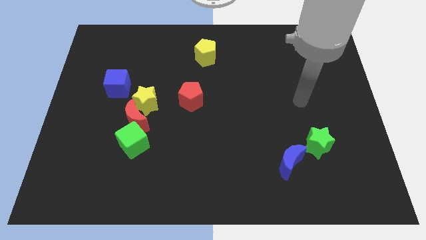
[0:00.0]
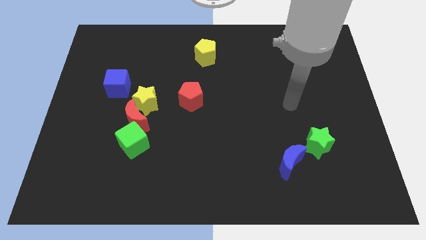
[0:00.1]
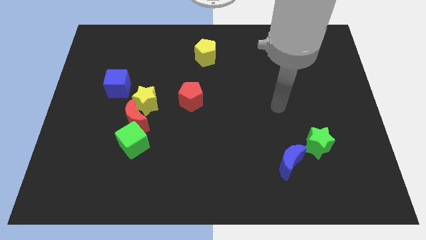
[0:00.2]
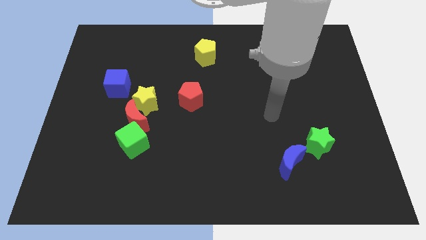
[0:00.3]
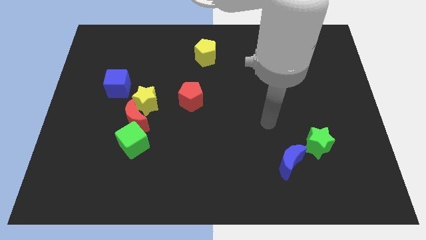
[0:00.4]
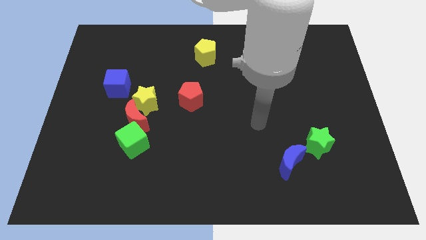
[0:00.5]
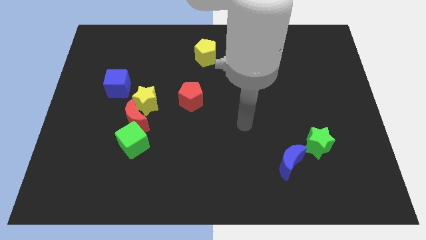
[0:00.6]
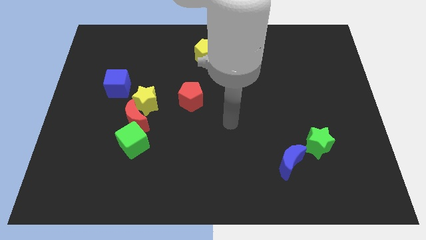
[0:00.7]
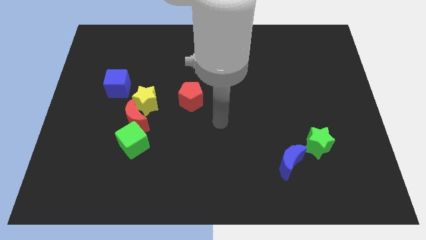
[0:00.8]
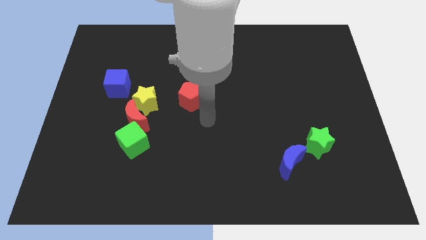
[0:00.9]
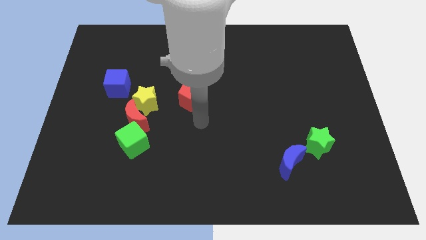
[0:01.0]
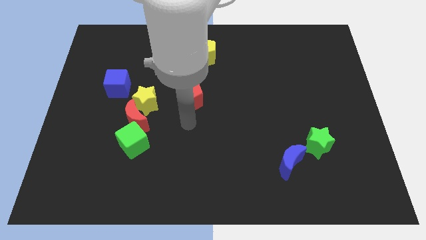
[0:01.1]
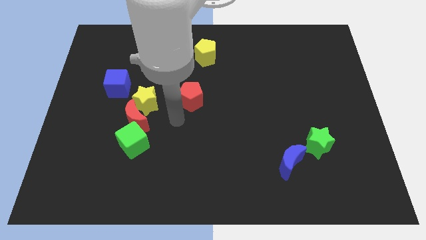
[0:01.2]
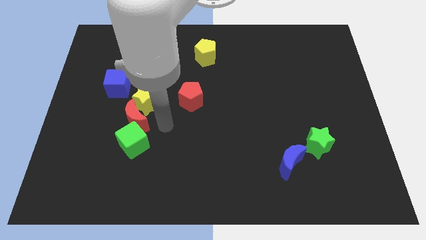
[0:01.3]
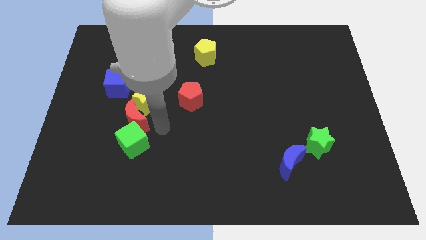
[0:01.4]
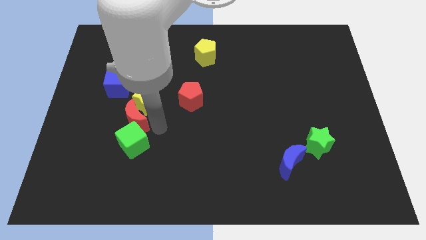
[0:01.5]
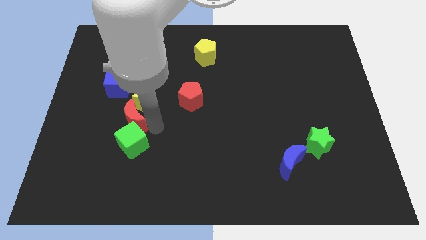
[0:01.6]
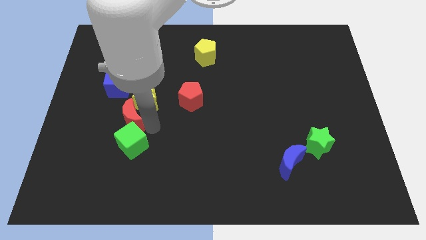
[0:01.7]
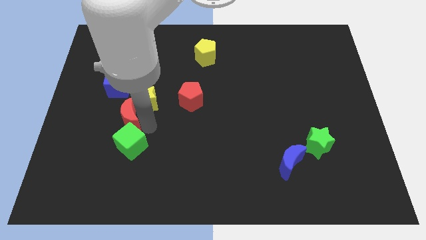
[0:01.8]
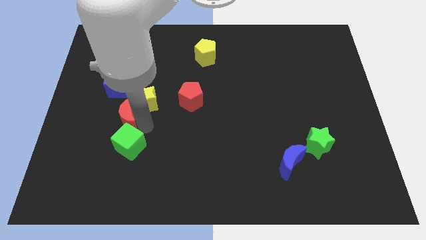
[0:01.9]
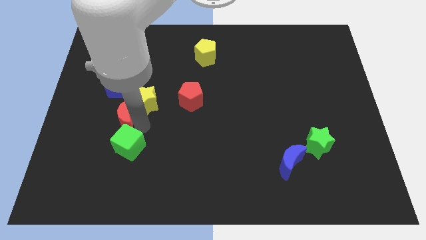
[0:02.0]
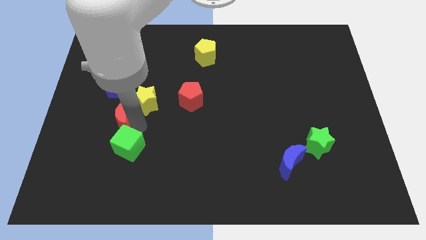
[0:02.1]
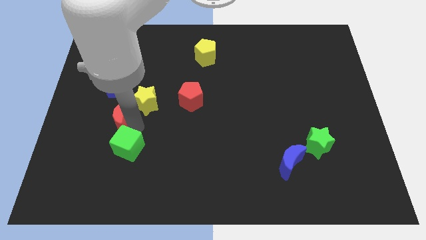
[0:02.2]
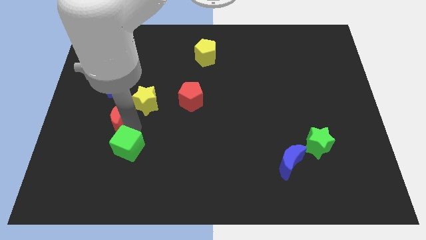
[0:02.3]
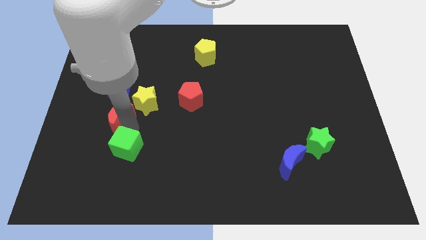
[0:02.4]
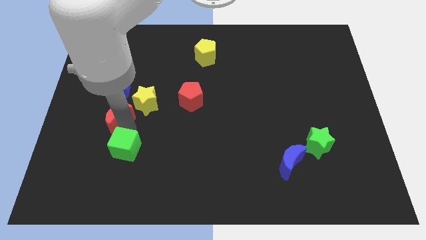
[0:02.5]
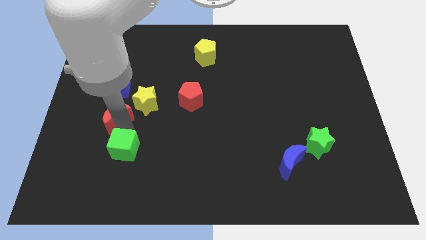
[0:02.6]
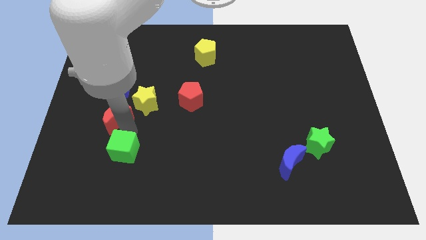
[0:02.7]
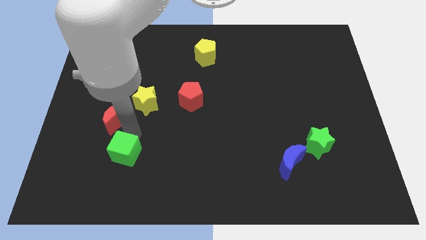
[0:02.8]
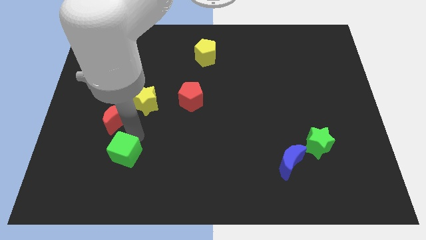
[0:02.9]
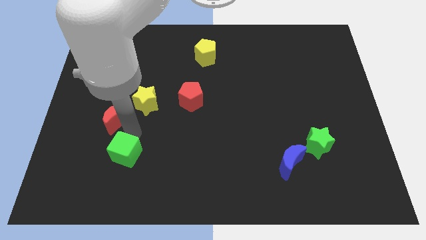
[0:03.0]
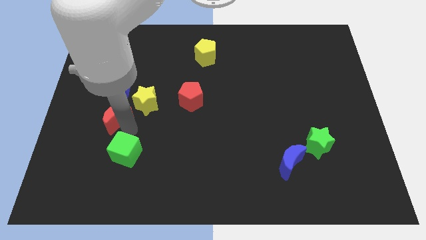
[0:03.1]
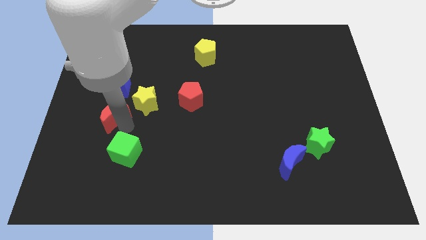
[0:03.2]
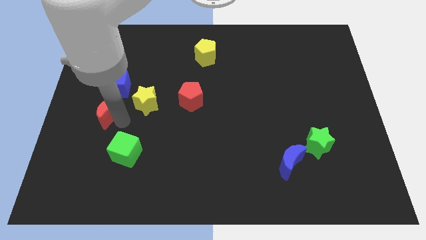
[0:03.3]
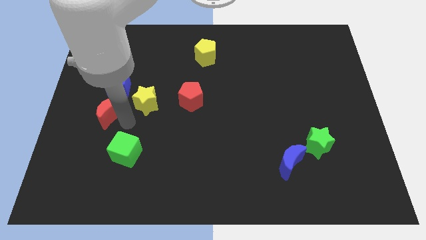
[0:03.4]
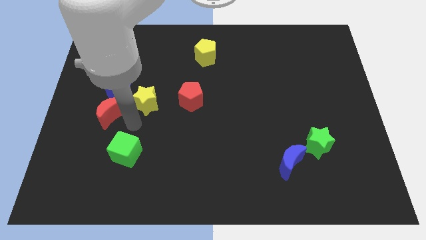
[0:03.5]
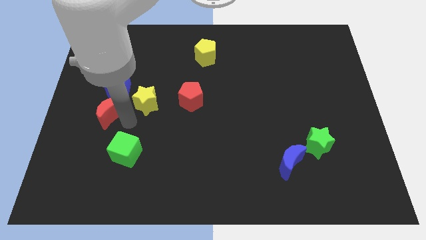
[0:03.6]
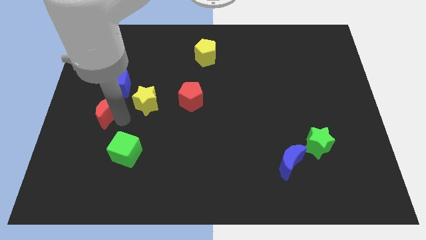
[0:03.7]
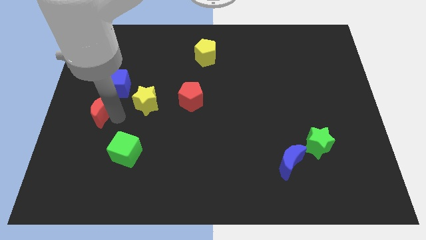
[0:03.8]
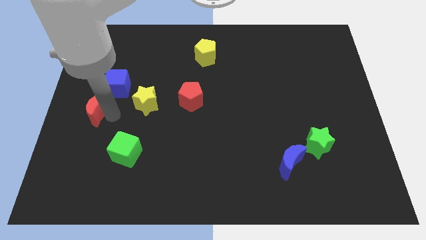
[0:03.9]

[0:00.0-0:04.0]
pull the red moon apart from the yellow star and green cube

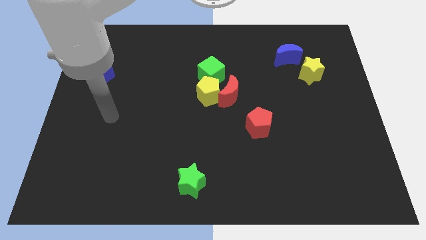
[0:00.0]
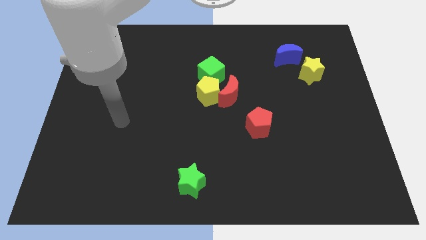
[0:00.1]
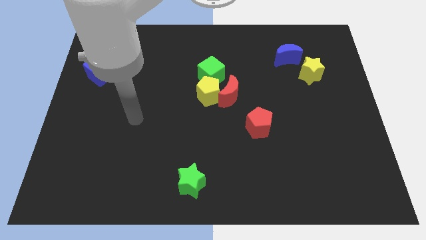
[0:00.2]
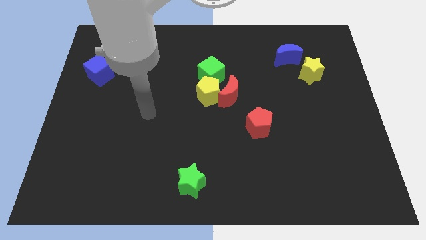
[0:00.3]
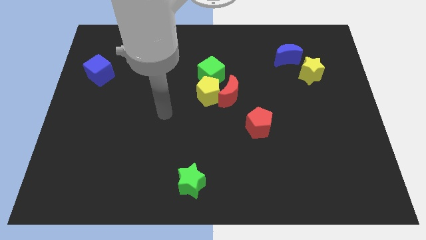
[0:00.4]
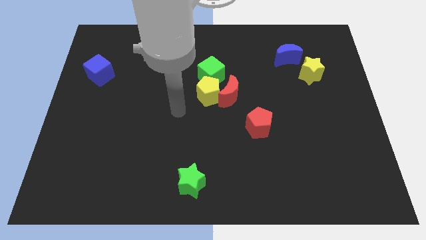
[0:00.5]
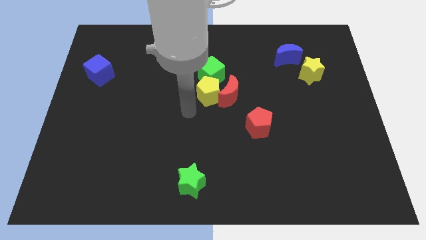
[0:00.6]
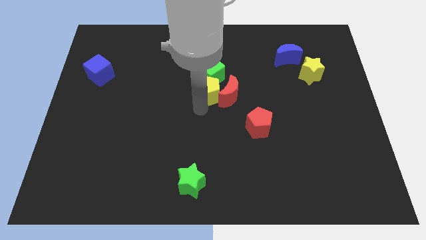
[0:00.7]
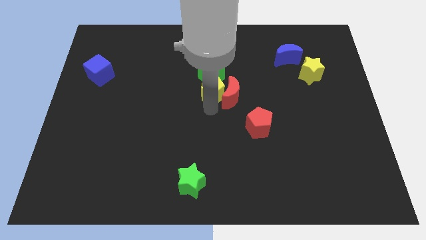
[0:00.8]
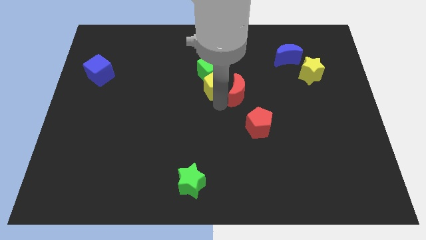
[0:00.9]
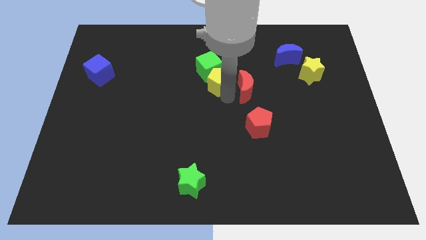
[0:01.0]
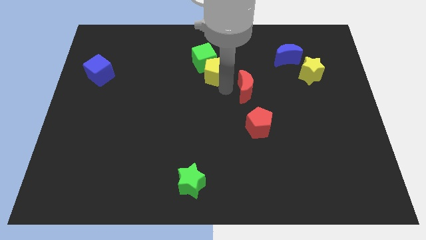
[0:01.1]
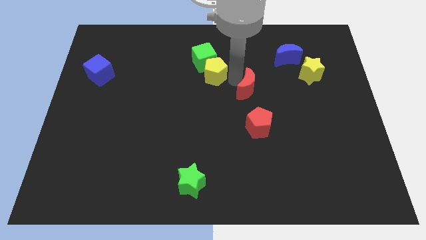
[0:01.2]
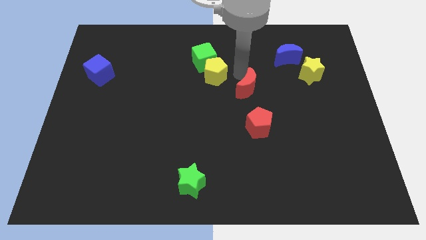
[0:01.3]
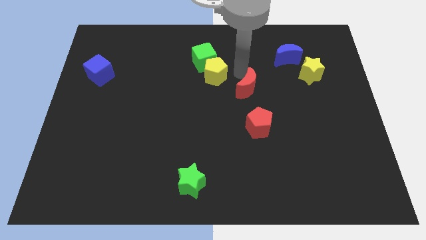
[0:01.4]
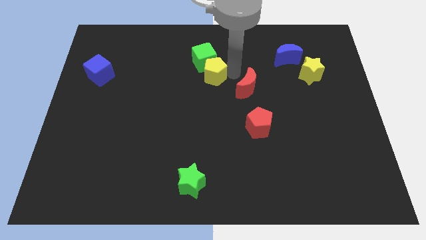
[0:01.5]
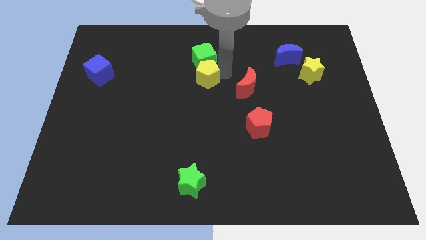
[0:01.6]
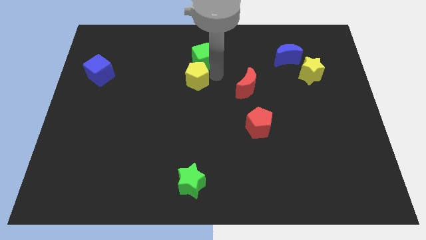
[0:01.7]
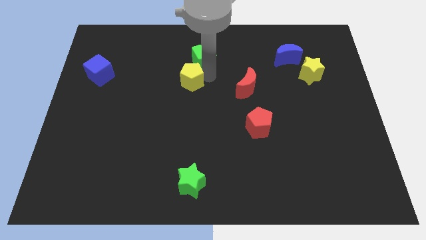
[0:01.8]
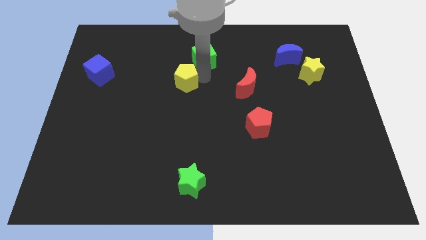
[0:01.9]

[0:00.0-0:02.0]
pull the yellow pentagon apart from the red moon and green cube

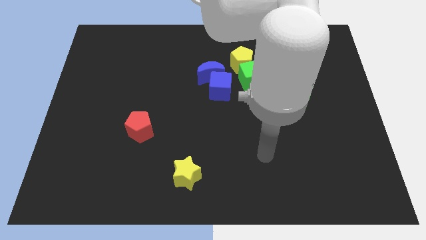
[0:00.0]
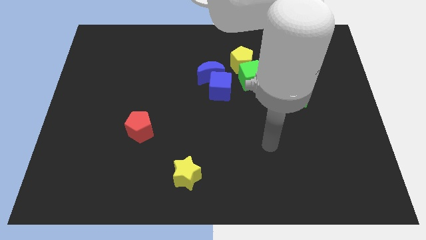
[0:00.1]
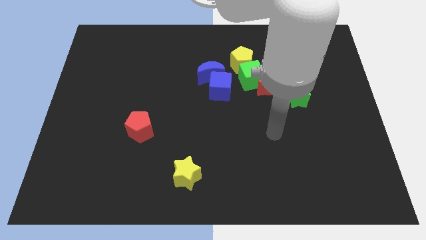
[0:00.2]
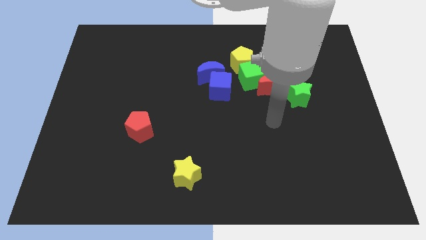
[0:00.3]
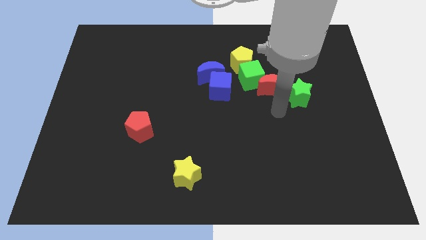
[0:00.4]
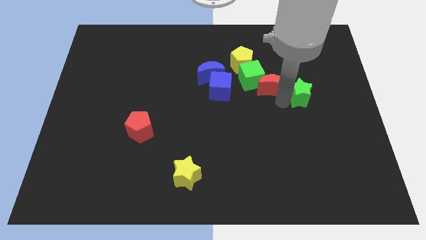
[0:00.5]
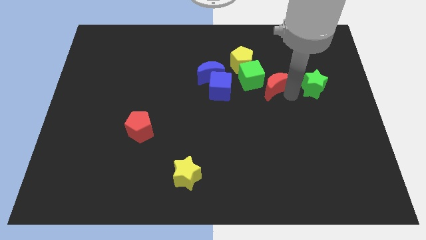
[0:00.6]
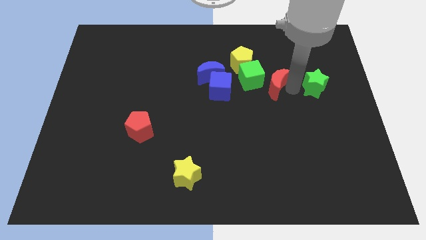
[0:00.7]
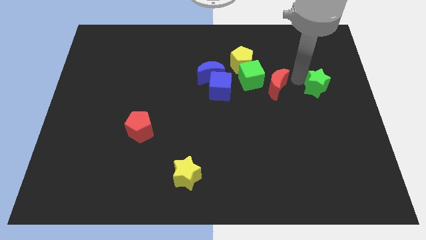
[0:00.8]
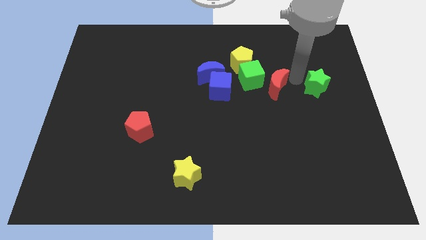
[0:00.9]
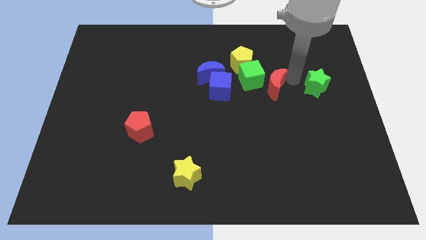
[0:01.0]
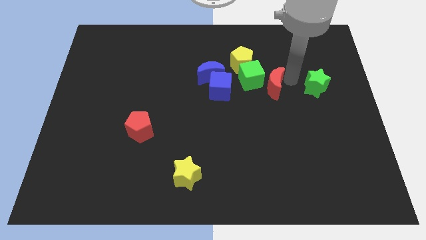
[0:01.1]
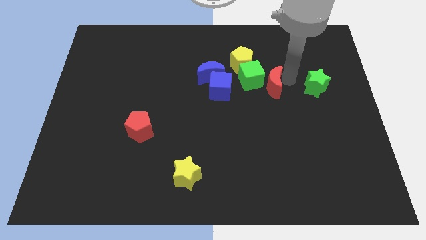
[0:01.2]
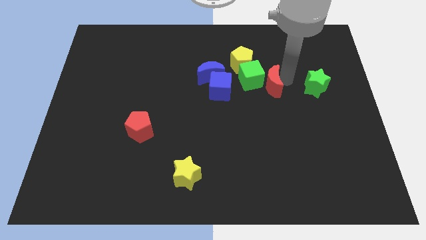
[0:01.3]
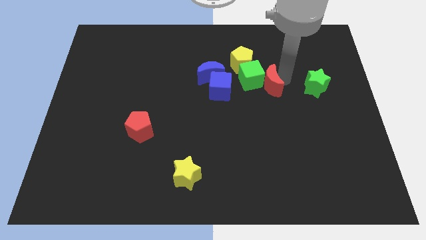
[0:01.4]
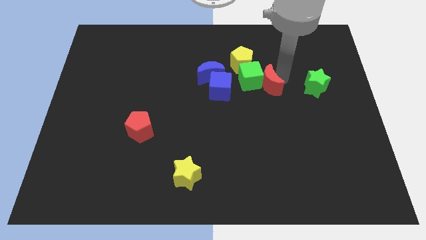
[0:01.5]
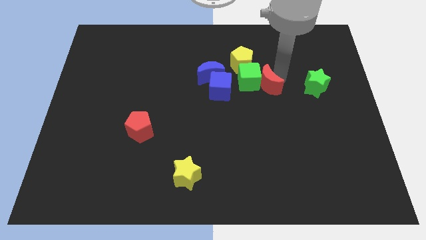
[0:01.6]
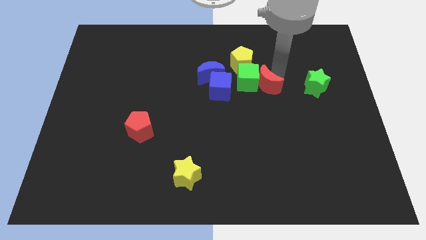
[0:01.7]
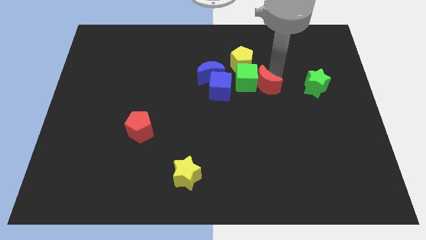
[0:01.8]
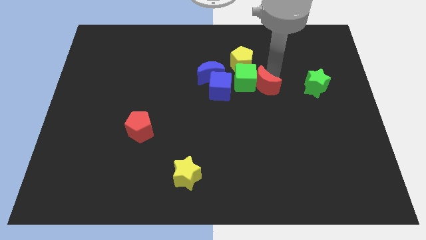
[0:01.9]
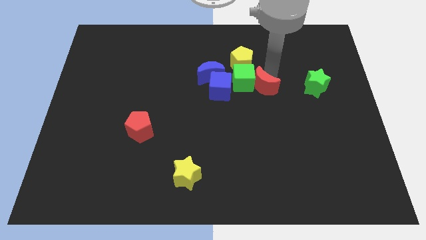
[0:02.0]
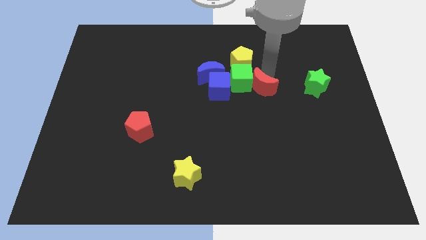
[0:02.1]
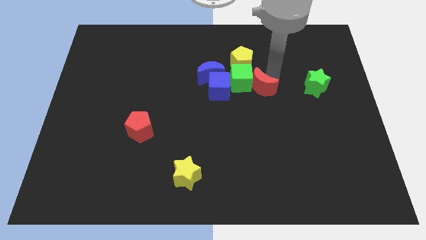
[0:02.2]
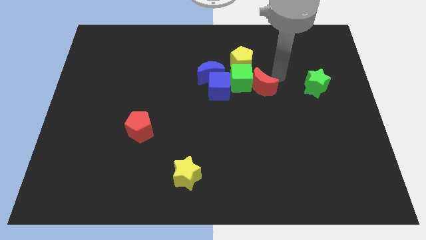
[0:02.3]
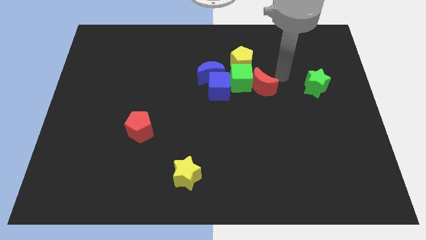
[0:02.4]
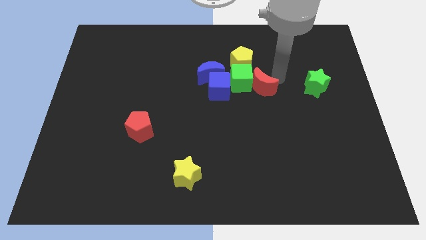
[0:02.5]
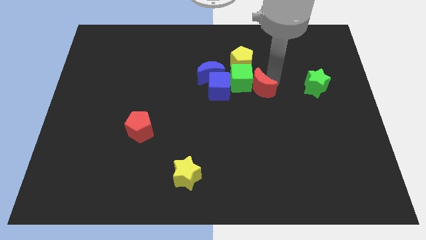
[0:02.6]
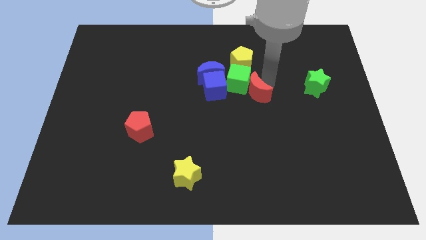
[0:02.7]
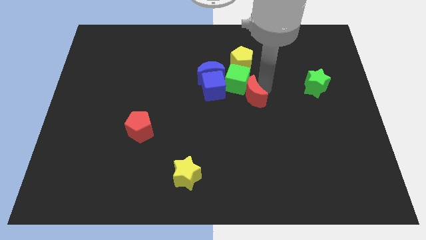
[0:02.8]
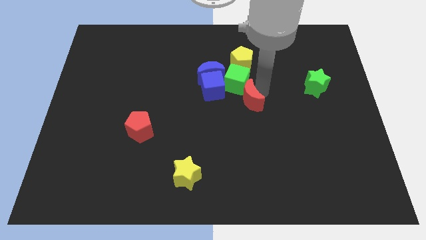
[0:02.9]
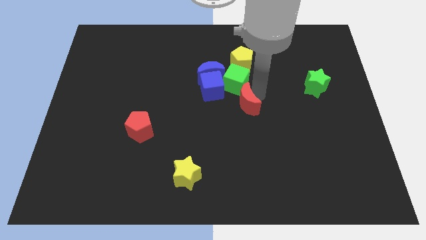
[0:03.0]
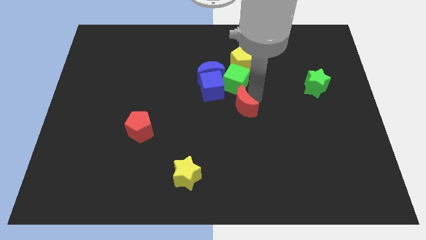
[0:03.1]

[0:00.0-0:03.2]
move the red moon away from the green cube and green star
